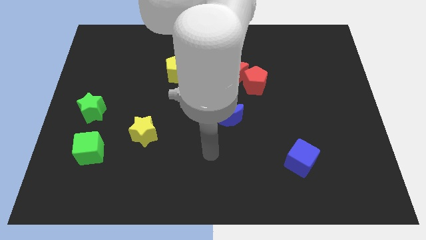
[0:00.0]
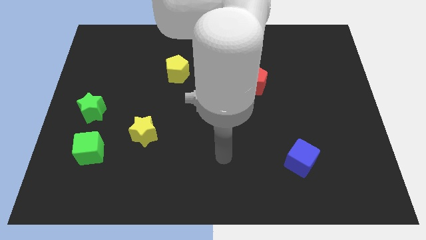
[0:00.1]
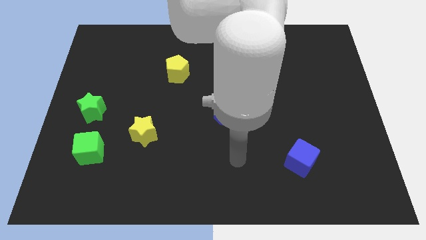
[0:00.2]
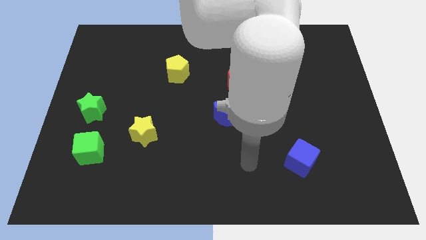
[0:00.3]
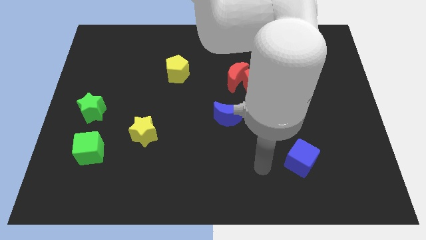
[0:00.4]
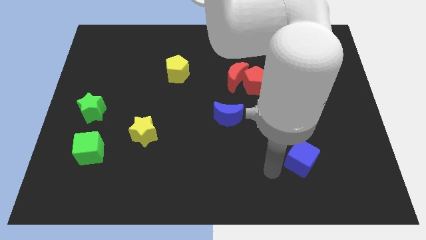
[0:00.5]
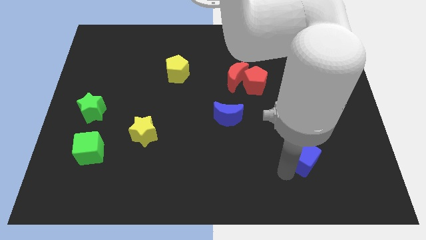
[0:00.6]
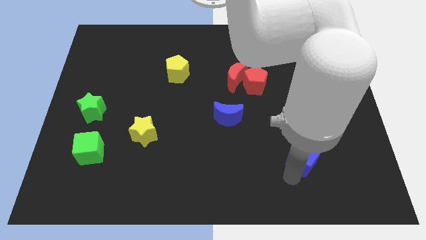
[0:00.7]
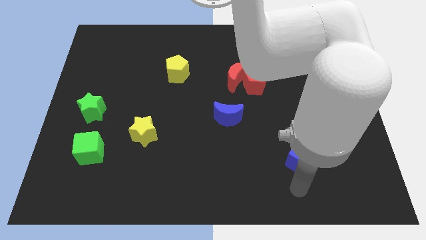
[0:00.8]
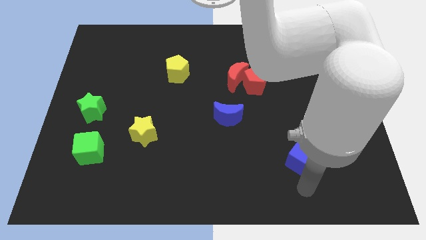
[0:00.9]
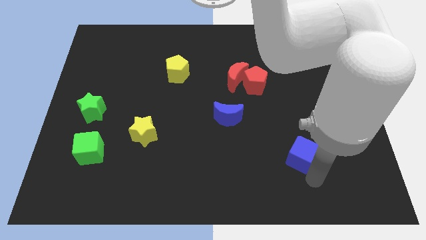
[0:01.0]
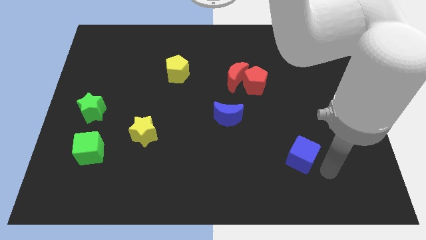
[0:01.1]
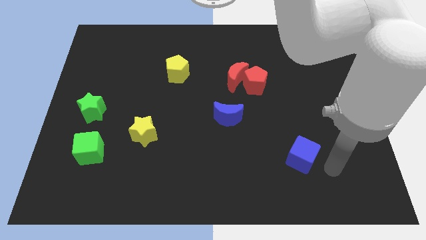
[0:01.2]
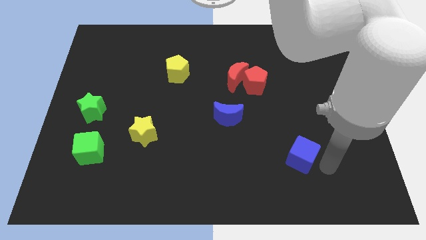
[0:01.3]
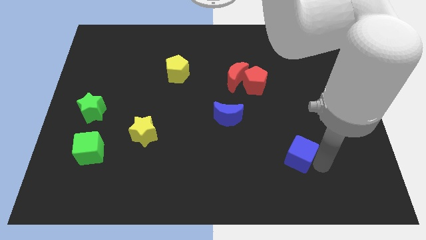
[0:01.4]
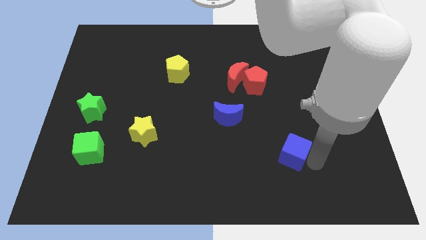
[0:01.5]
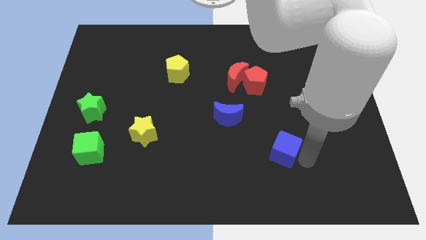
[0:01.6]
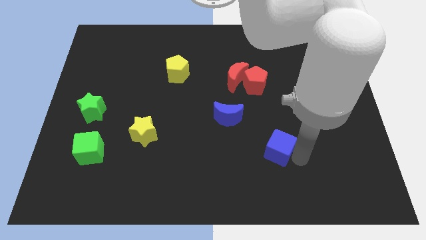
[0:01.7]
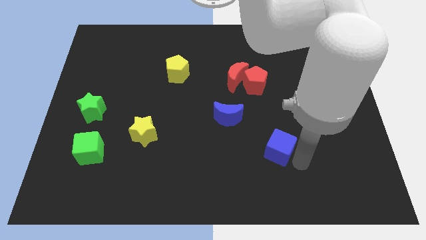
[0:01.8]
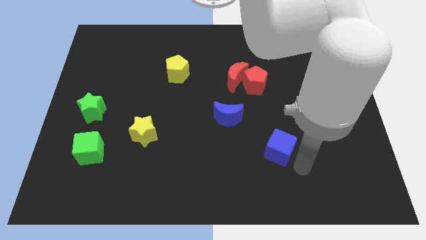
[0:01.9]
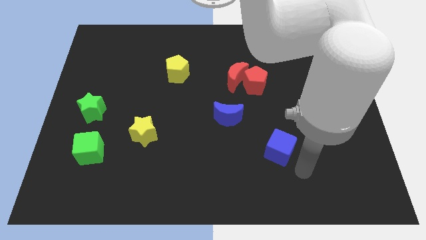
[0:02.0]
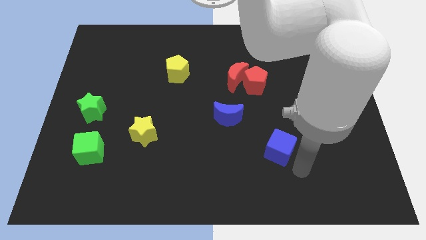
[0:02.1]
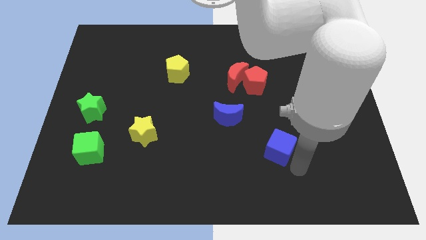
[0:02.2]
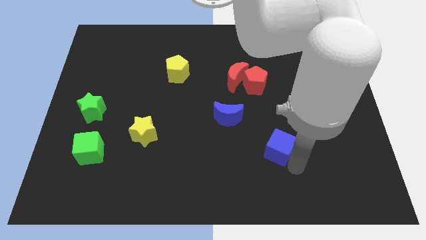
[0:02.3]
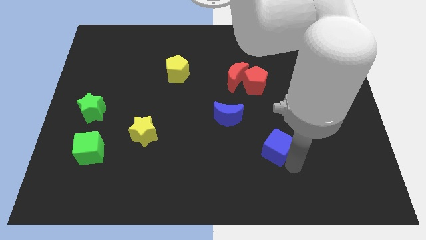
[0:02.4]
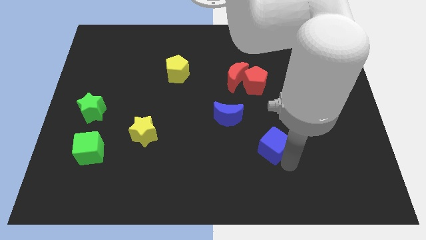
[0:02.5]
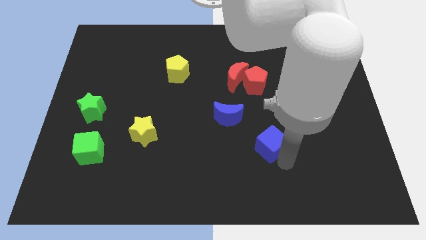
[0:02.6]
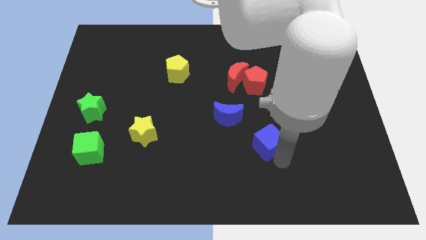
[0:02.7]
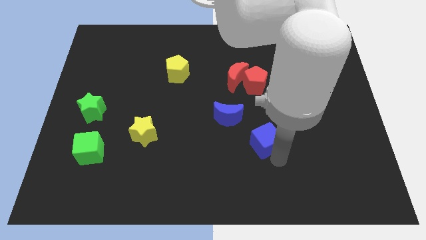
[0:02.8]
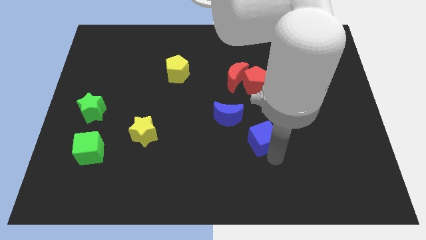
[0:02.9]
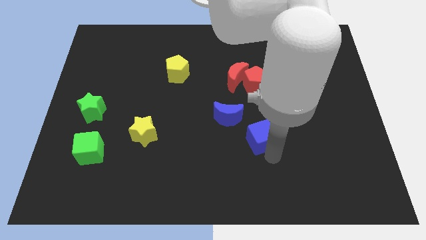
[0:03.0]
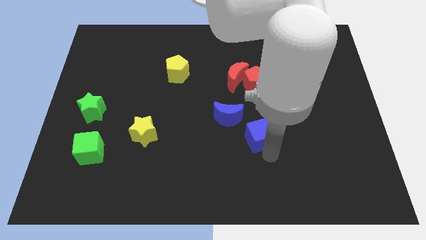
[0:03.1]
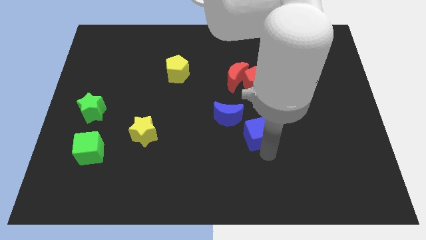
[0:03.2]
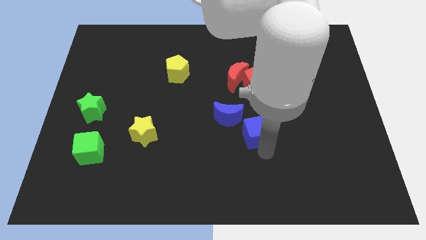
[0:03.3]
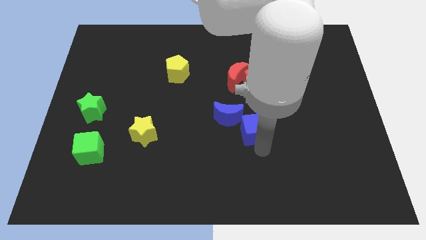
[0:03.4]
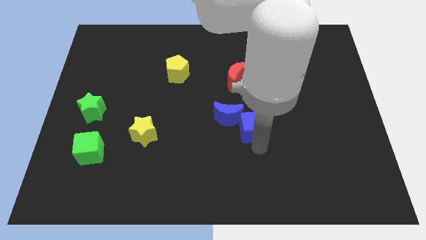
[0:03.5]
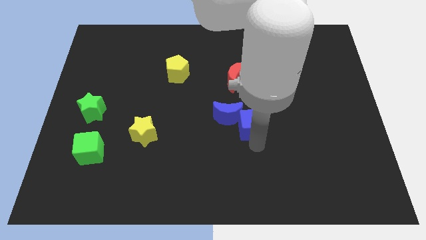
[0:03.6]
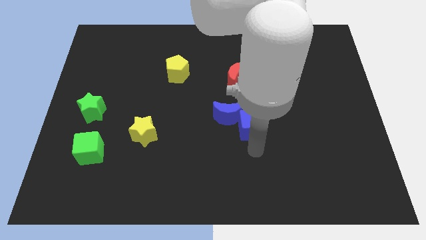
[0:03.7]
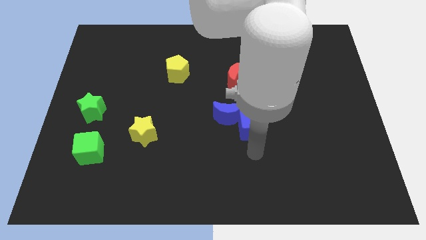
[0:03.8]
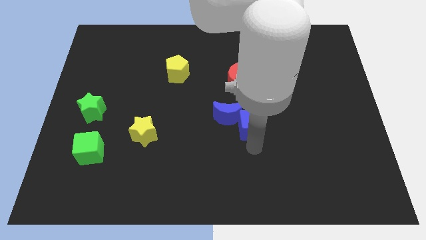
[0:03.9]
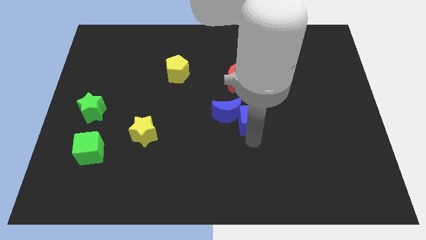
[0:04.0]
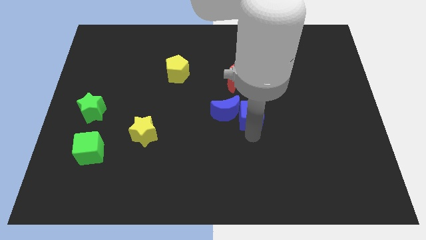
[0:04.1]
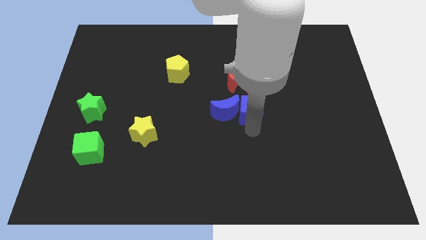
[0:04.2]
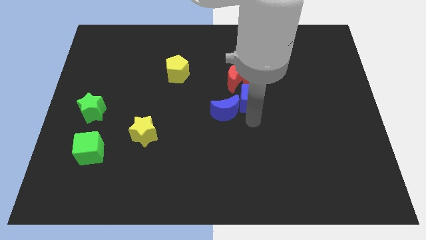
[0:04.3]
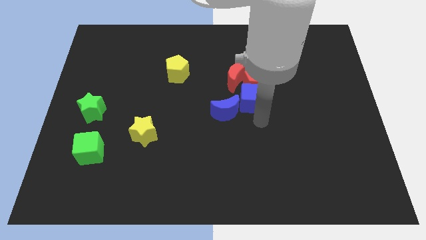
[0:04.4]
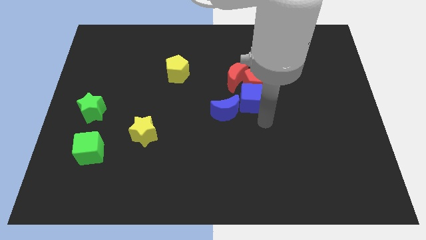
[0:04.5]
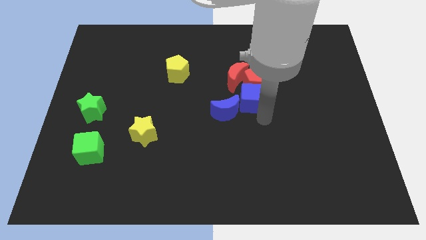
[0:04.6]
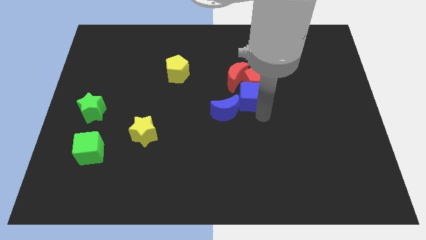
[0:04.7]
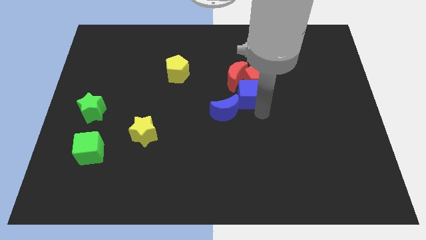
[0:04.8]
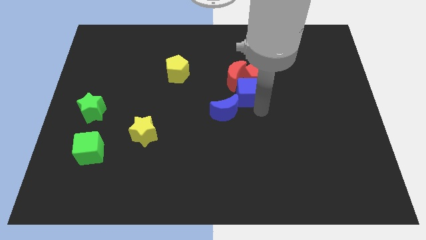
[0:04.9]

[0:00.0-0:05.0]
push the blue cube to the red moon

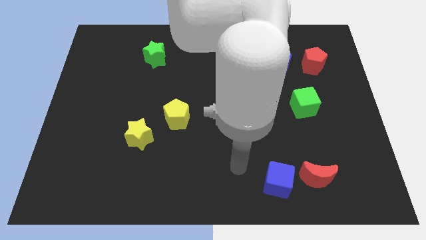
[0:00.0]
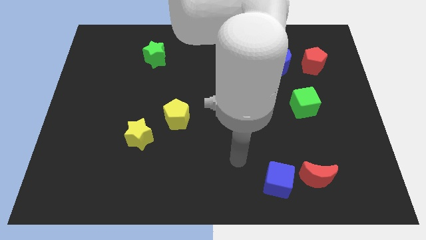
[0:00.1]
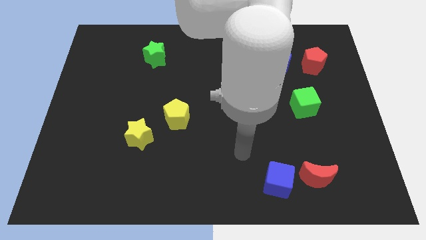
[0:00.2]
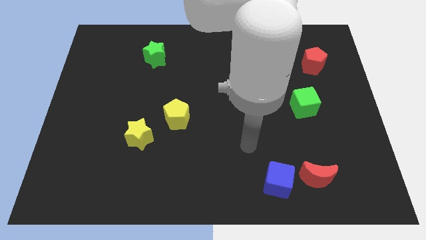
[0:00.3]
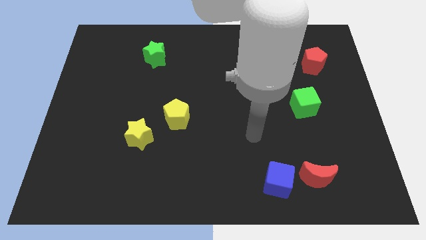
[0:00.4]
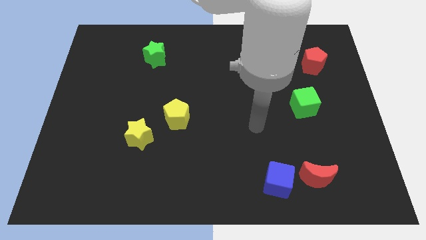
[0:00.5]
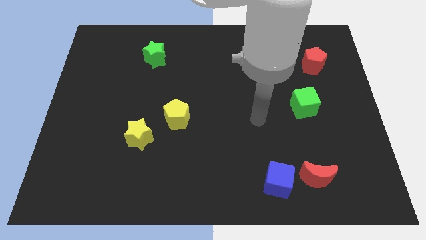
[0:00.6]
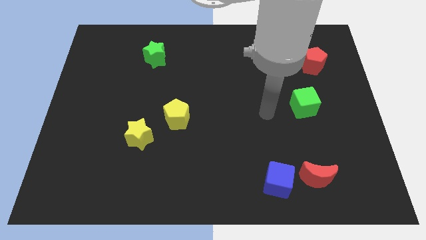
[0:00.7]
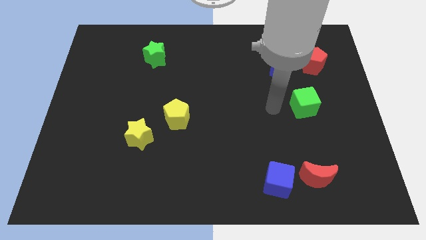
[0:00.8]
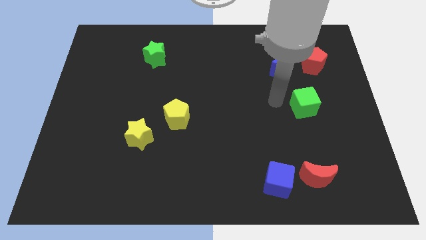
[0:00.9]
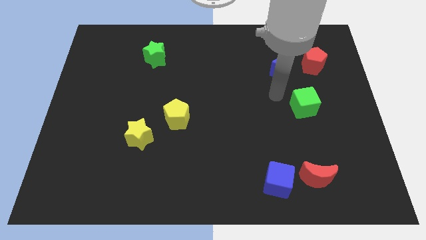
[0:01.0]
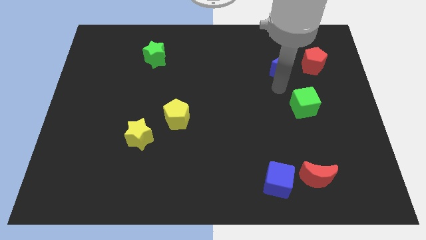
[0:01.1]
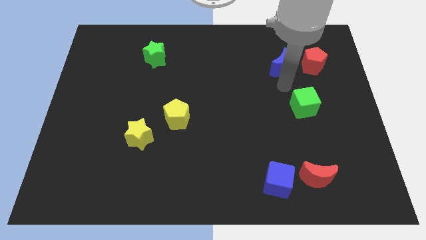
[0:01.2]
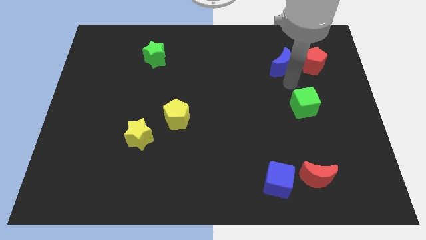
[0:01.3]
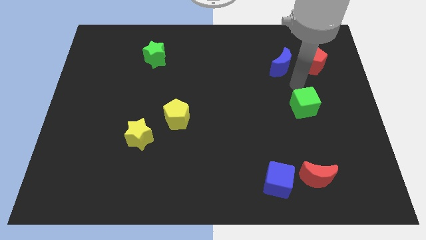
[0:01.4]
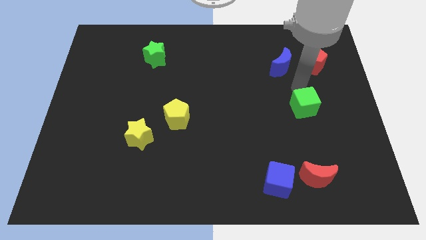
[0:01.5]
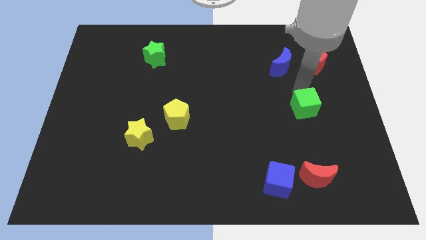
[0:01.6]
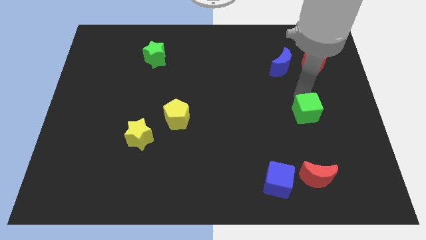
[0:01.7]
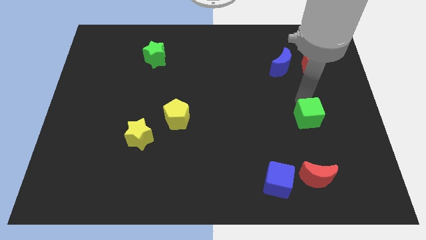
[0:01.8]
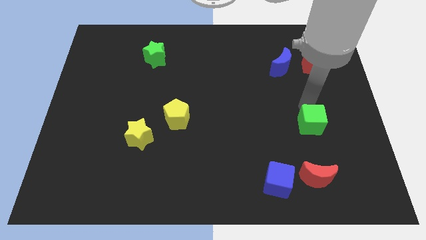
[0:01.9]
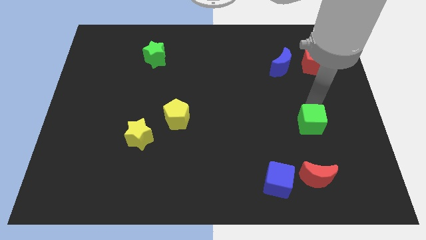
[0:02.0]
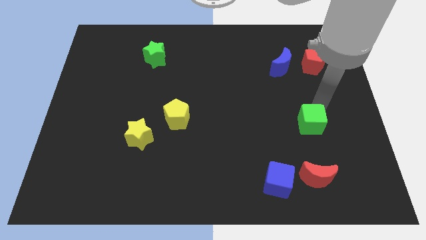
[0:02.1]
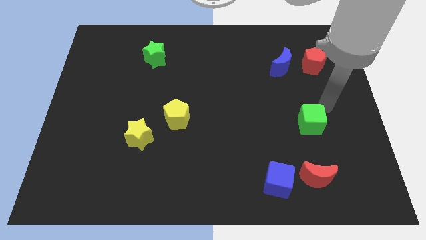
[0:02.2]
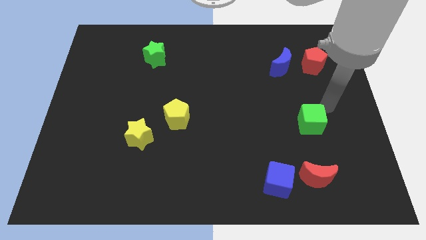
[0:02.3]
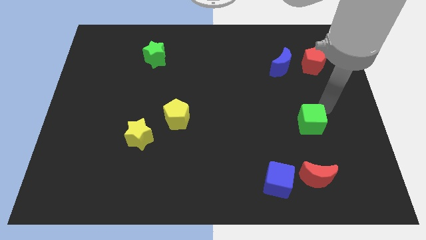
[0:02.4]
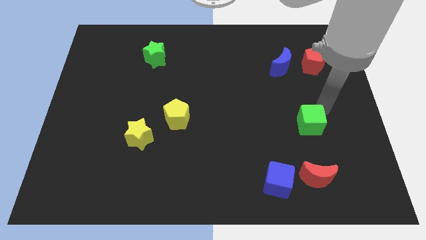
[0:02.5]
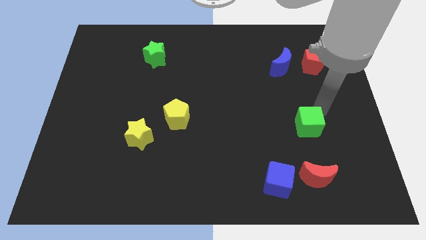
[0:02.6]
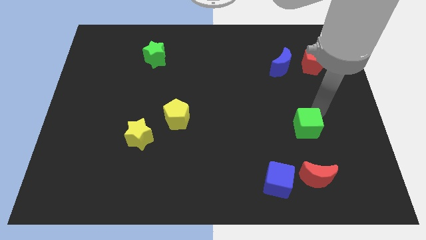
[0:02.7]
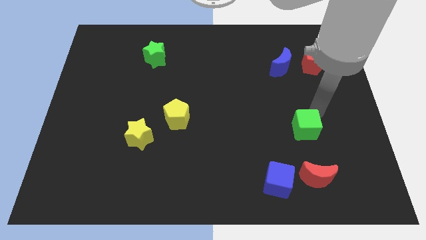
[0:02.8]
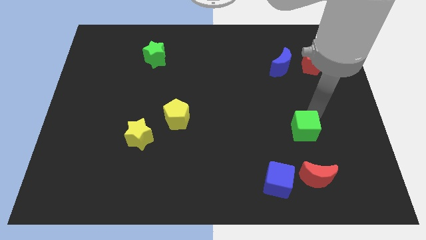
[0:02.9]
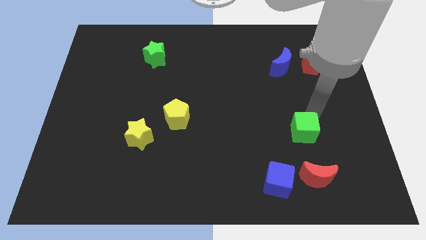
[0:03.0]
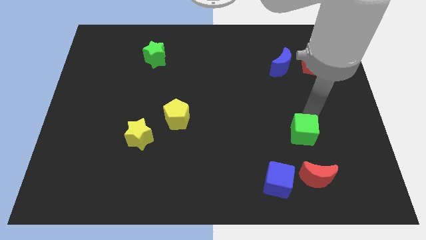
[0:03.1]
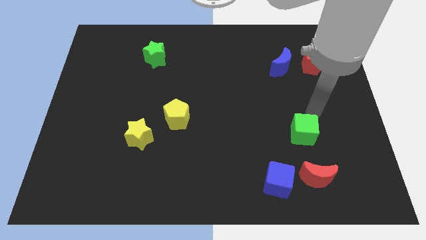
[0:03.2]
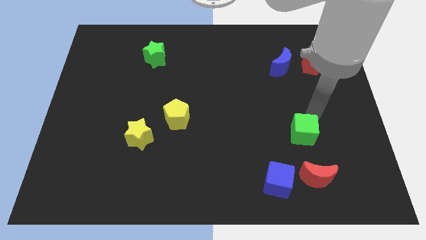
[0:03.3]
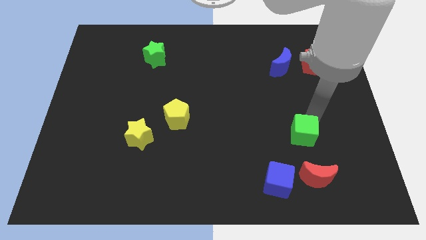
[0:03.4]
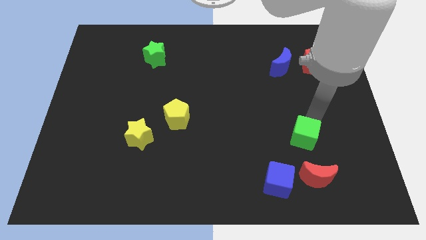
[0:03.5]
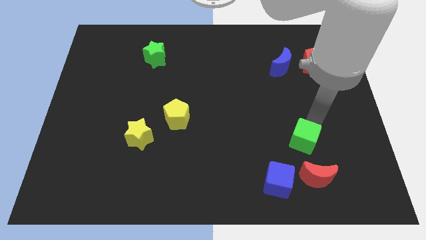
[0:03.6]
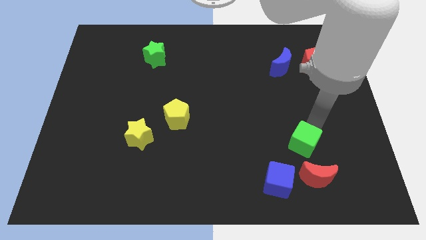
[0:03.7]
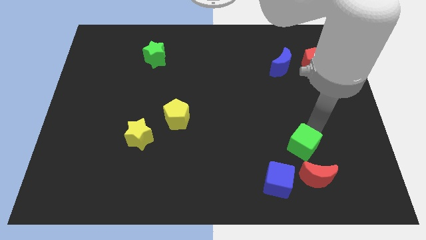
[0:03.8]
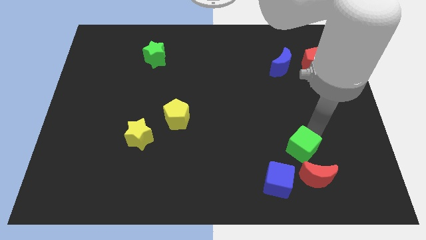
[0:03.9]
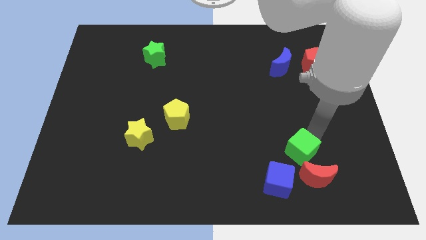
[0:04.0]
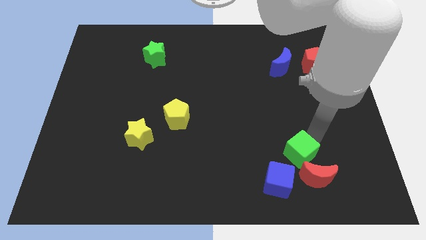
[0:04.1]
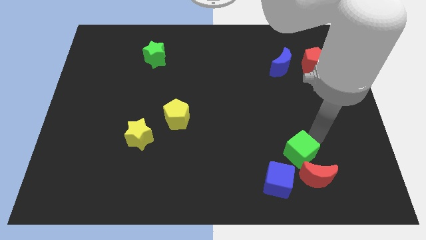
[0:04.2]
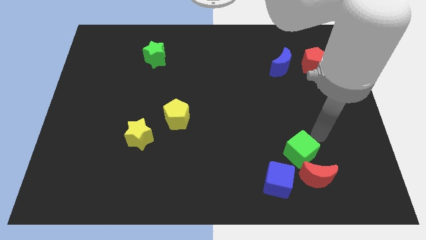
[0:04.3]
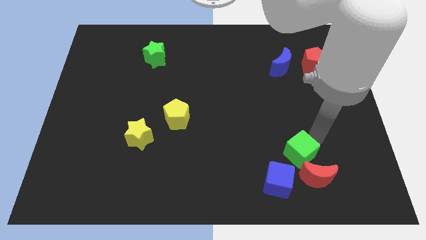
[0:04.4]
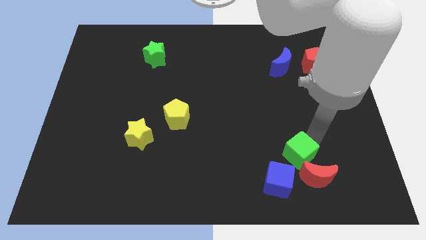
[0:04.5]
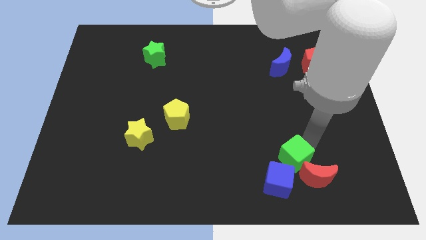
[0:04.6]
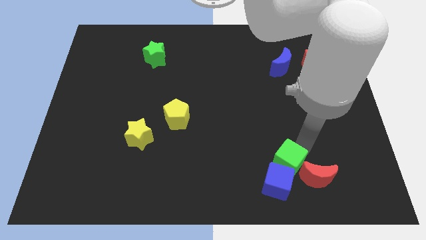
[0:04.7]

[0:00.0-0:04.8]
put the green cube to the blue cube
